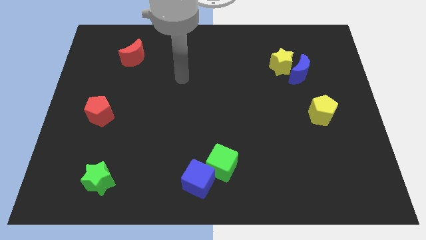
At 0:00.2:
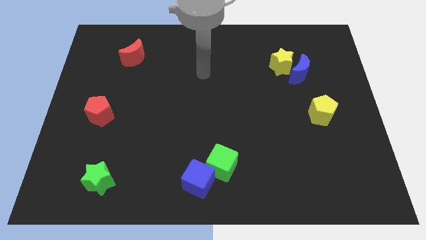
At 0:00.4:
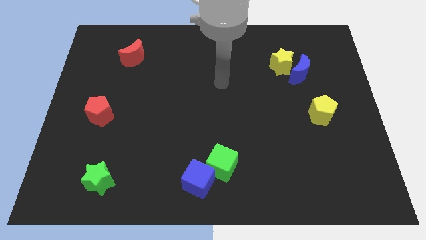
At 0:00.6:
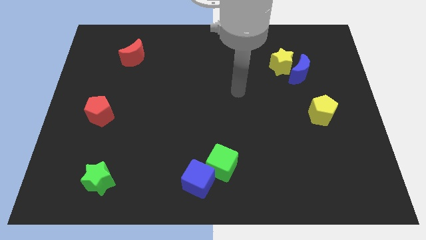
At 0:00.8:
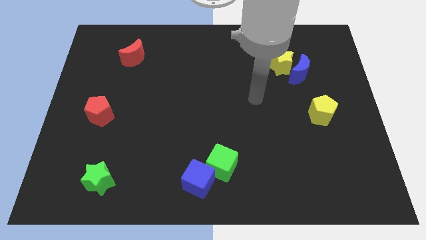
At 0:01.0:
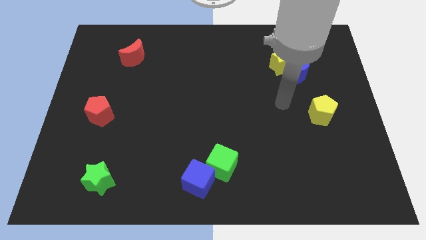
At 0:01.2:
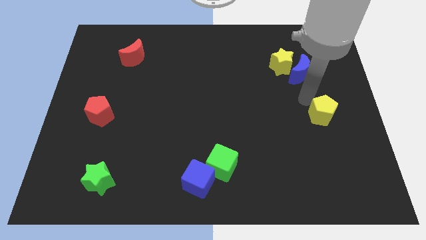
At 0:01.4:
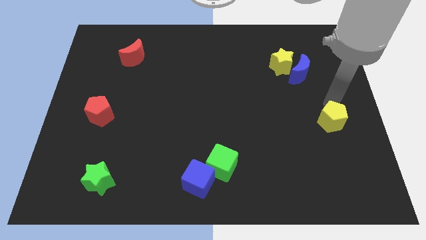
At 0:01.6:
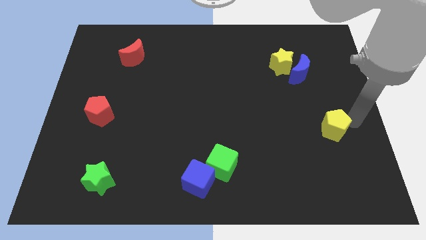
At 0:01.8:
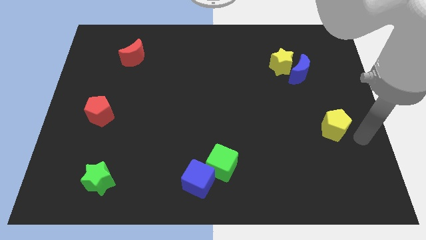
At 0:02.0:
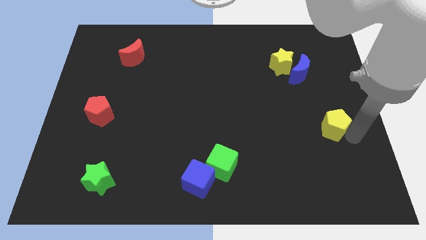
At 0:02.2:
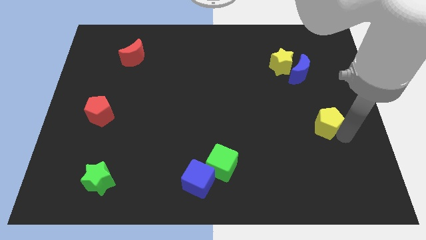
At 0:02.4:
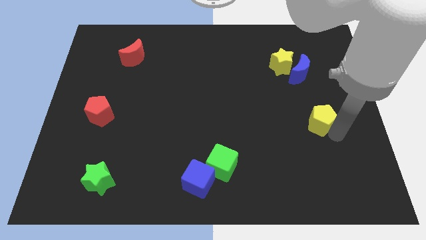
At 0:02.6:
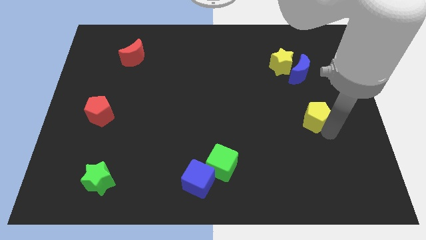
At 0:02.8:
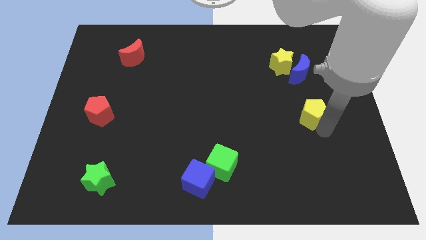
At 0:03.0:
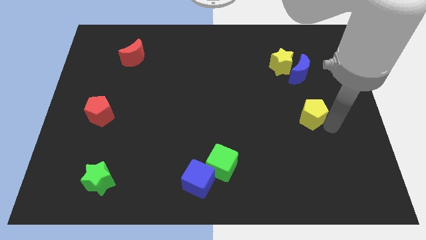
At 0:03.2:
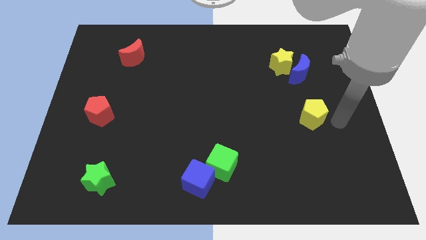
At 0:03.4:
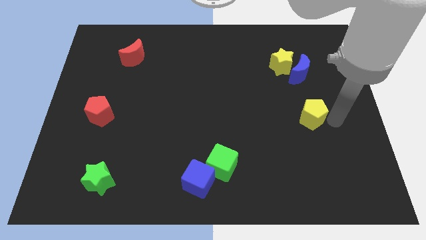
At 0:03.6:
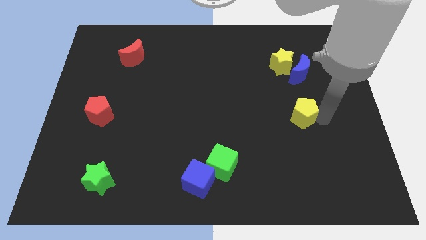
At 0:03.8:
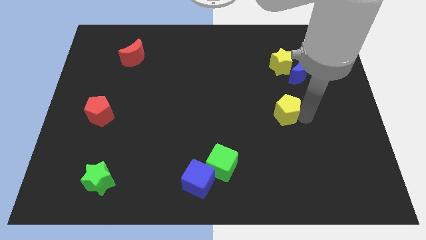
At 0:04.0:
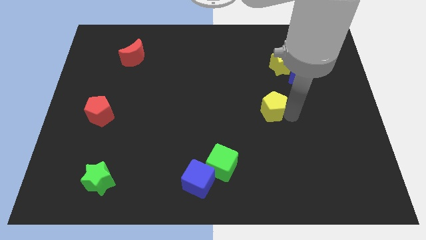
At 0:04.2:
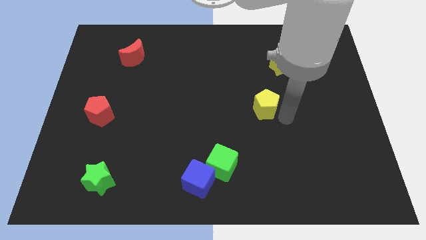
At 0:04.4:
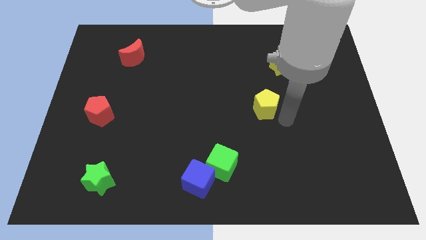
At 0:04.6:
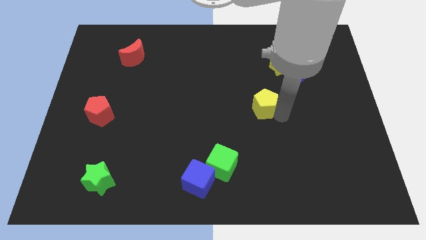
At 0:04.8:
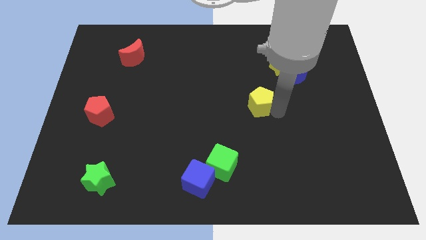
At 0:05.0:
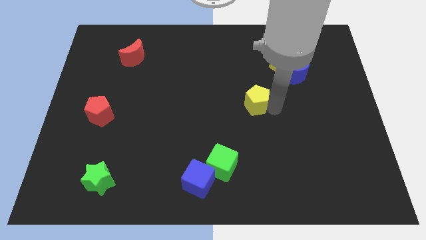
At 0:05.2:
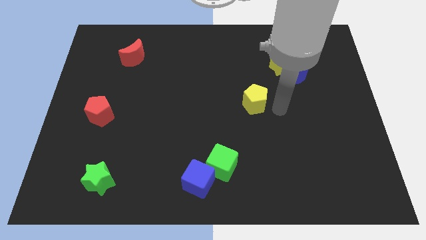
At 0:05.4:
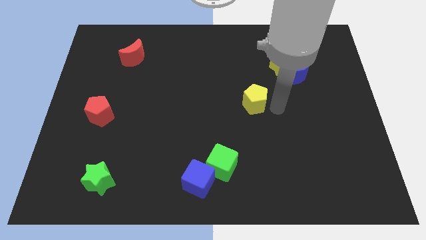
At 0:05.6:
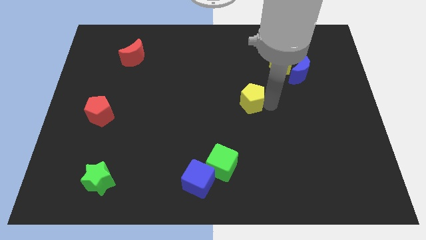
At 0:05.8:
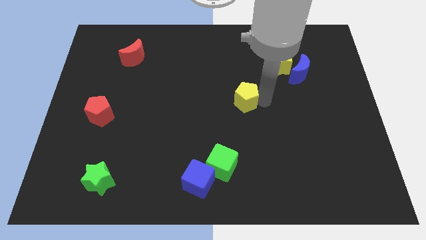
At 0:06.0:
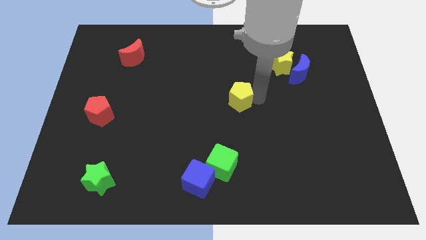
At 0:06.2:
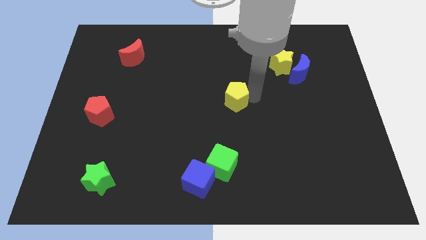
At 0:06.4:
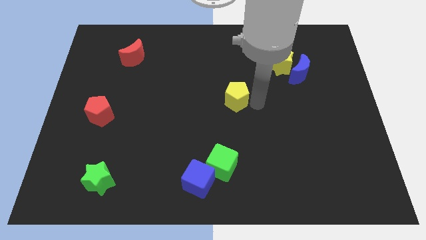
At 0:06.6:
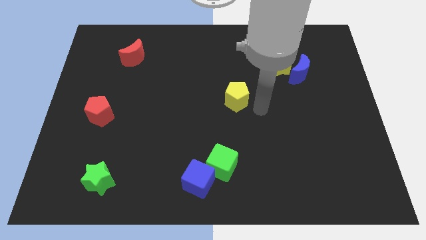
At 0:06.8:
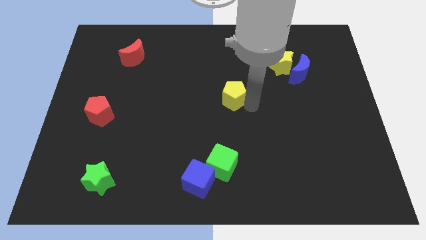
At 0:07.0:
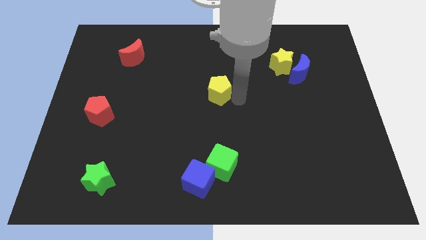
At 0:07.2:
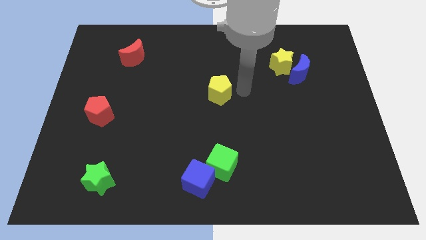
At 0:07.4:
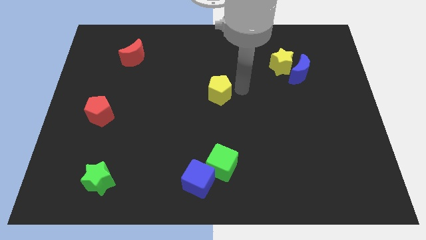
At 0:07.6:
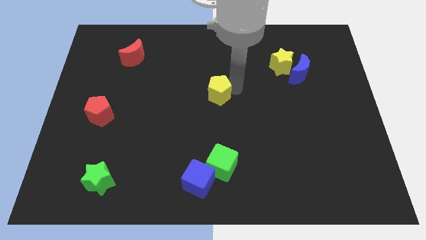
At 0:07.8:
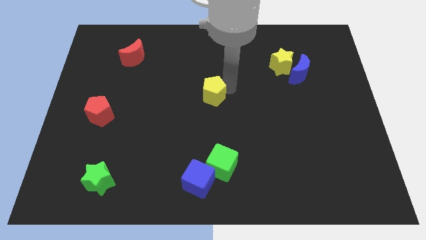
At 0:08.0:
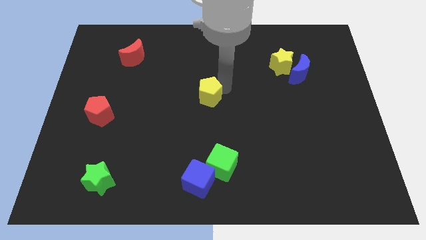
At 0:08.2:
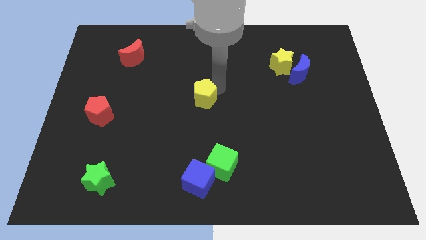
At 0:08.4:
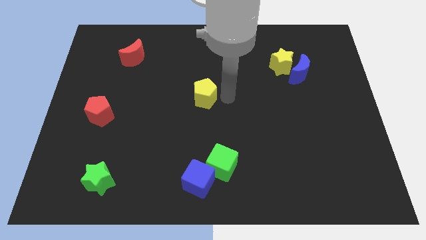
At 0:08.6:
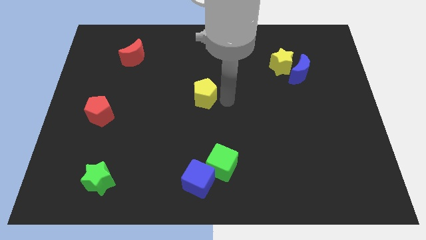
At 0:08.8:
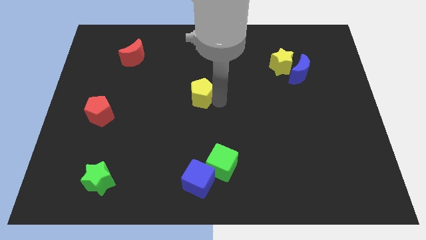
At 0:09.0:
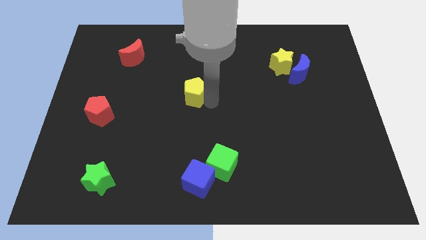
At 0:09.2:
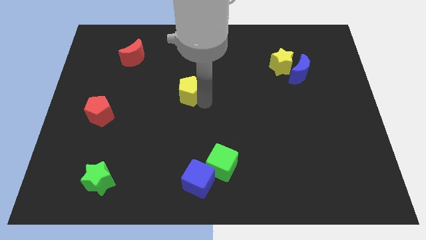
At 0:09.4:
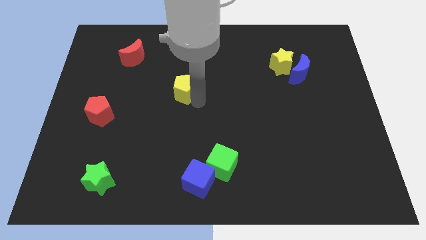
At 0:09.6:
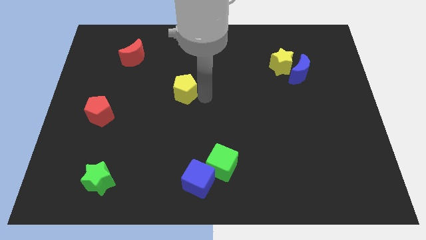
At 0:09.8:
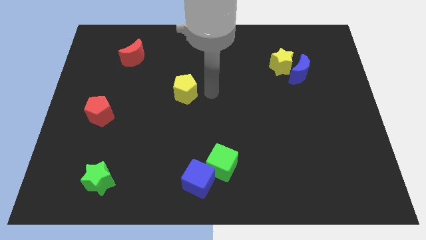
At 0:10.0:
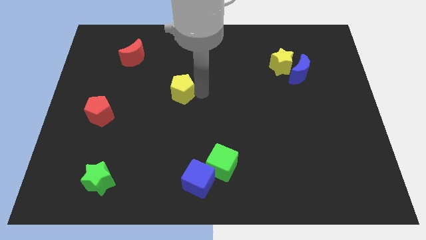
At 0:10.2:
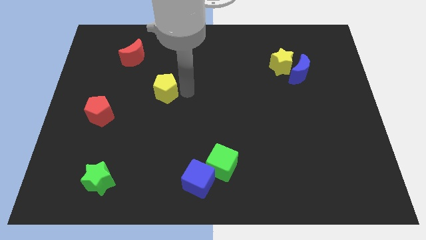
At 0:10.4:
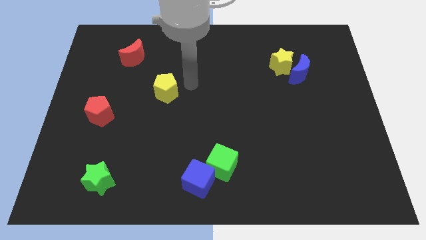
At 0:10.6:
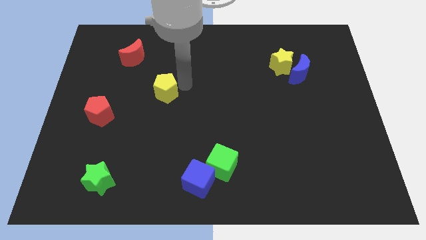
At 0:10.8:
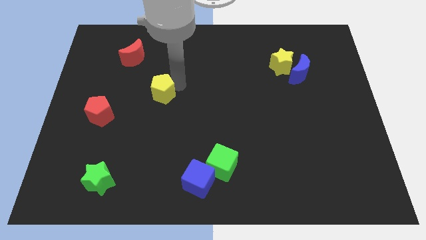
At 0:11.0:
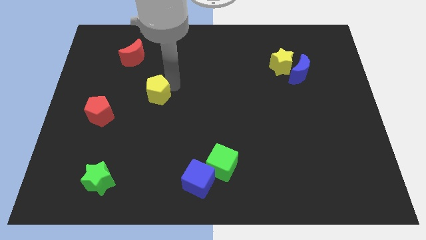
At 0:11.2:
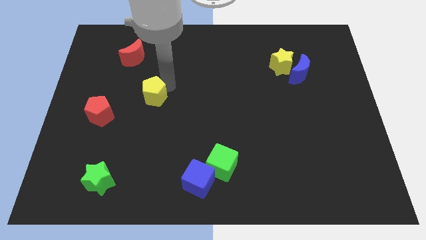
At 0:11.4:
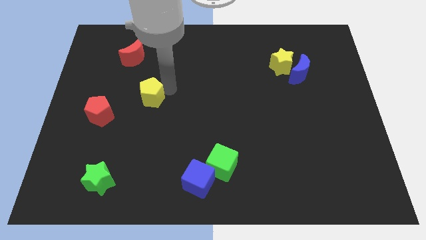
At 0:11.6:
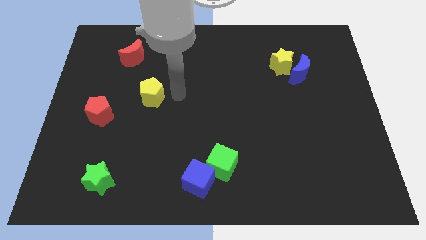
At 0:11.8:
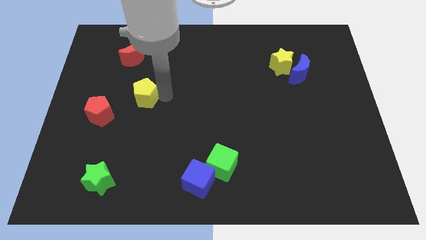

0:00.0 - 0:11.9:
put the yellow pentagon to the top right side of the red pentagon
